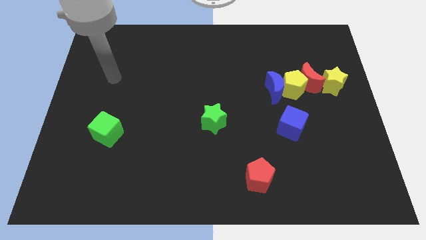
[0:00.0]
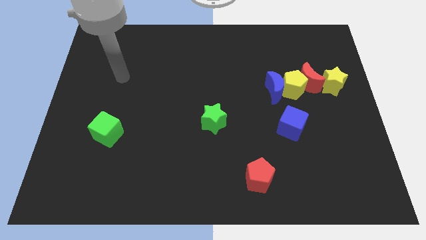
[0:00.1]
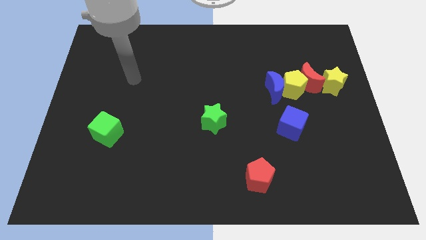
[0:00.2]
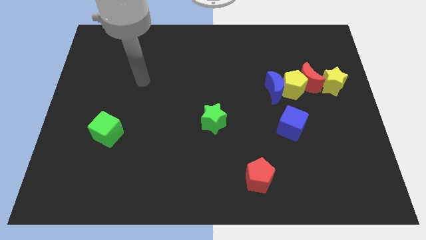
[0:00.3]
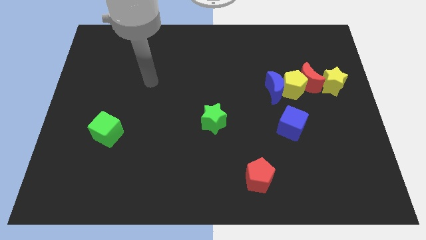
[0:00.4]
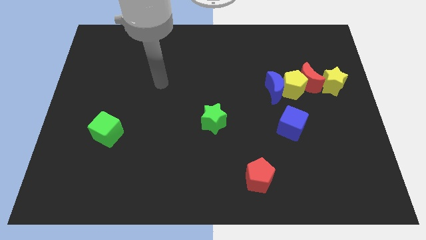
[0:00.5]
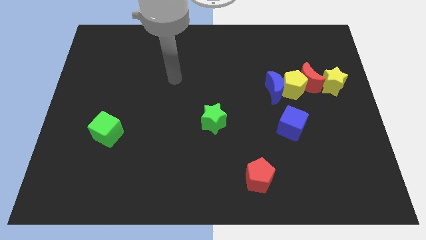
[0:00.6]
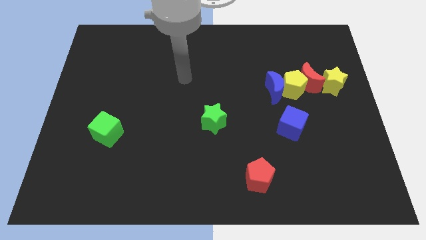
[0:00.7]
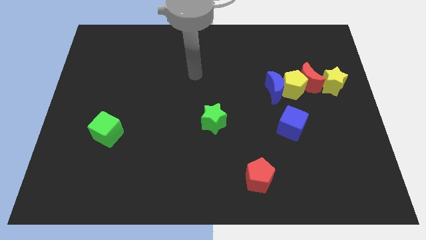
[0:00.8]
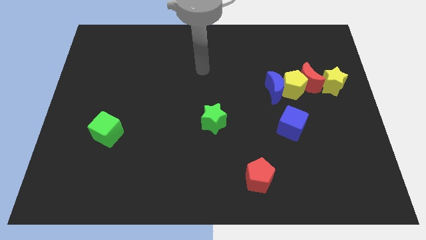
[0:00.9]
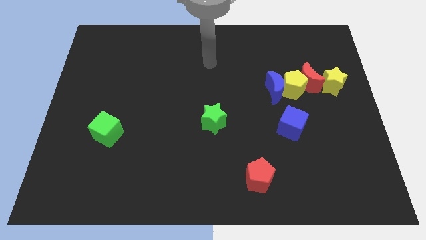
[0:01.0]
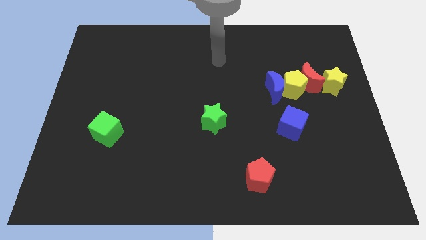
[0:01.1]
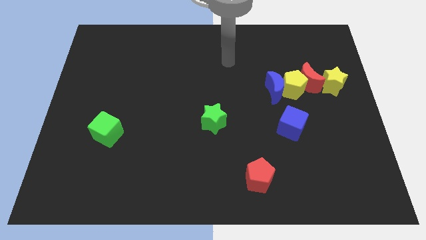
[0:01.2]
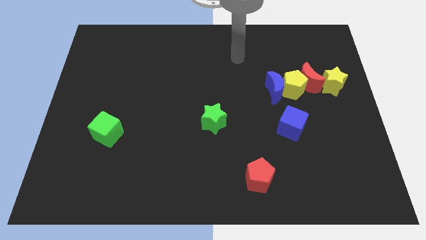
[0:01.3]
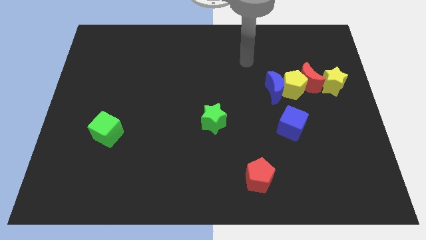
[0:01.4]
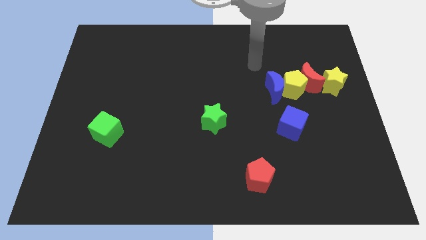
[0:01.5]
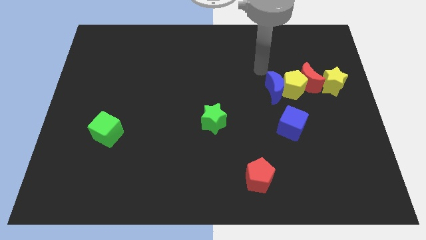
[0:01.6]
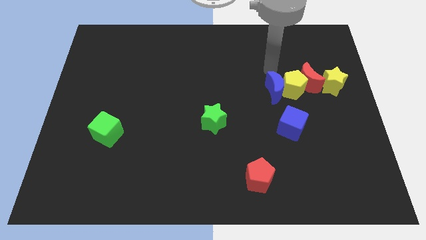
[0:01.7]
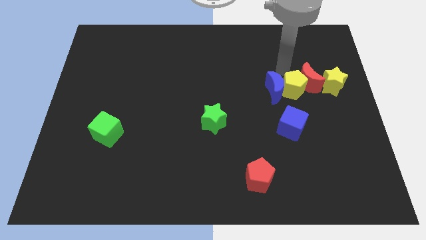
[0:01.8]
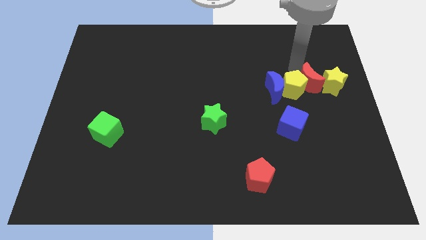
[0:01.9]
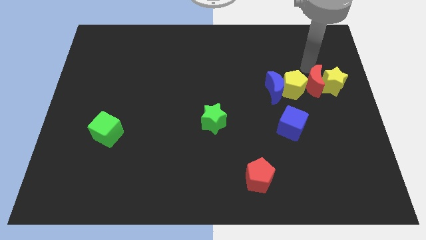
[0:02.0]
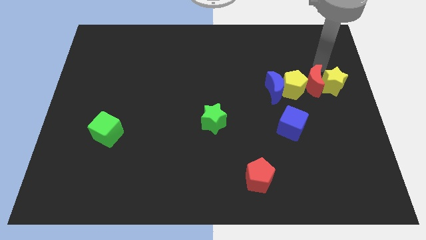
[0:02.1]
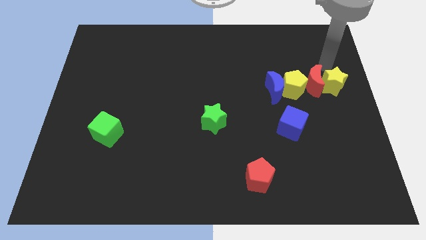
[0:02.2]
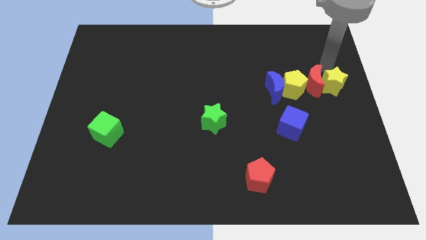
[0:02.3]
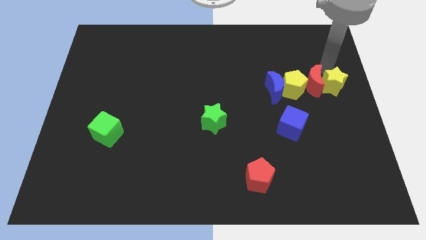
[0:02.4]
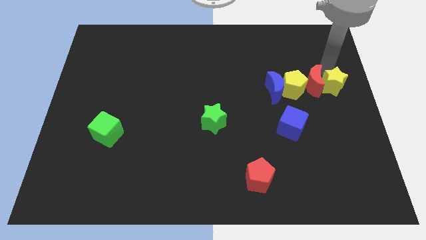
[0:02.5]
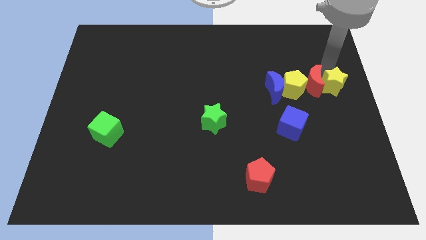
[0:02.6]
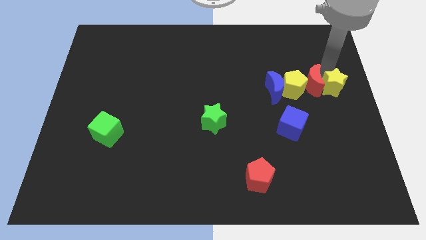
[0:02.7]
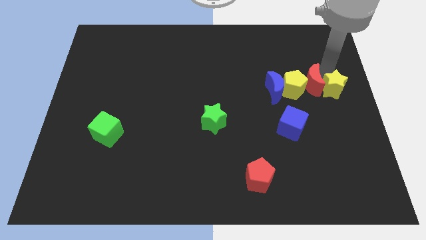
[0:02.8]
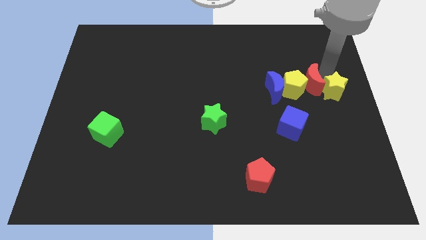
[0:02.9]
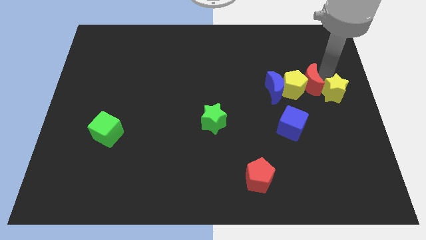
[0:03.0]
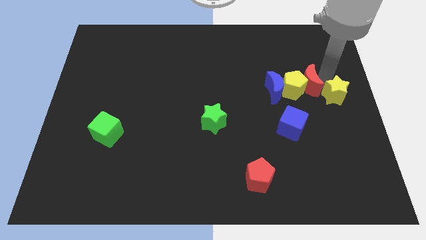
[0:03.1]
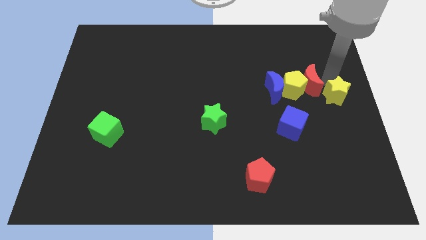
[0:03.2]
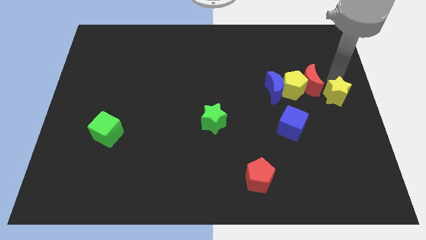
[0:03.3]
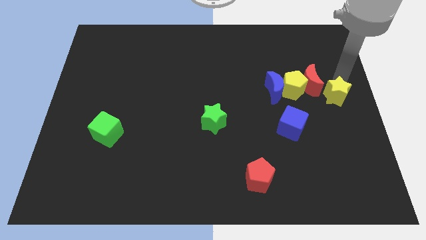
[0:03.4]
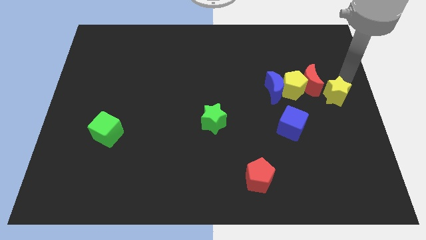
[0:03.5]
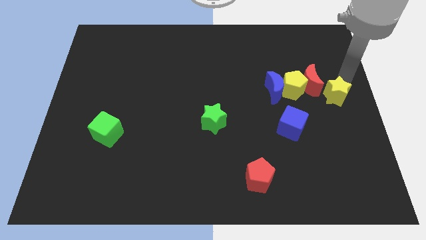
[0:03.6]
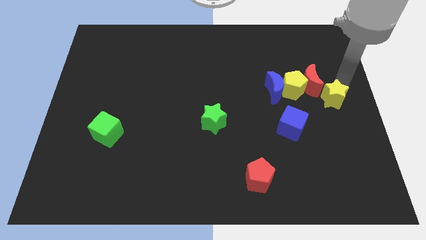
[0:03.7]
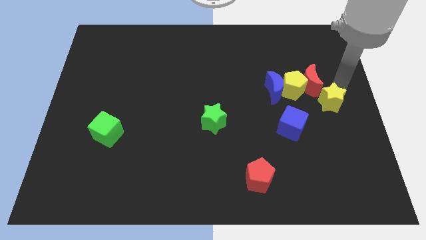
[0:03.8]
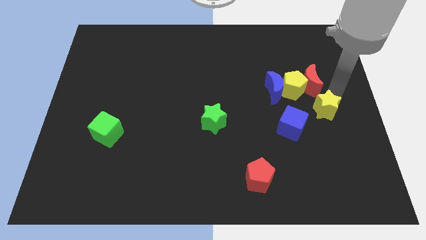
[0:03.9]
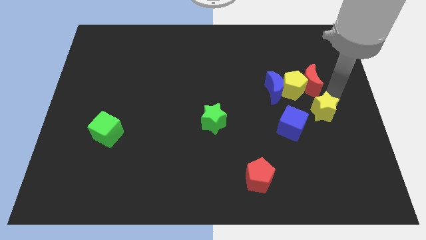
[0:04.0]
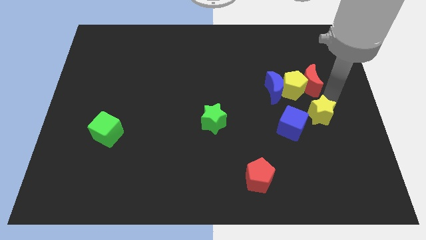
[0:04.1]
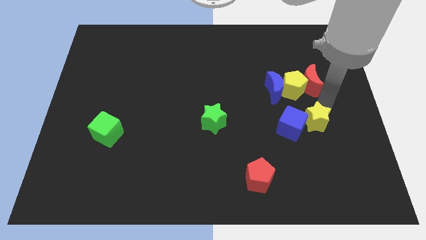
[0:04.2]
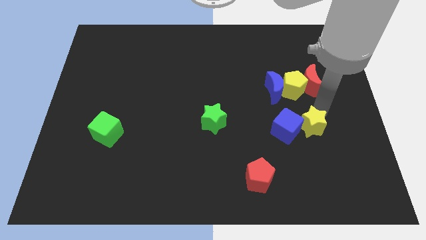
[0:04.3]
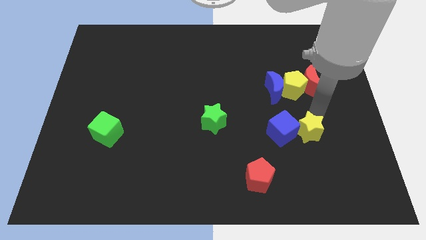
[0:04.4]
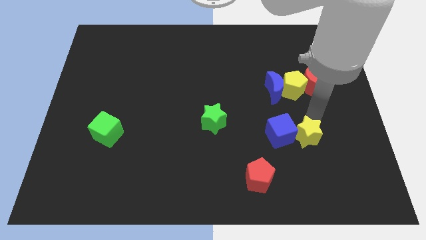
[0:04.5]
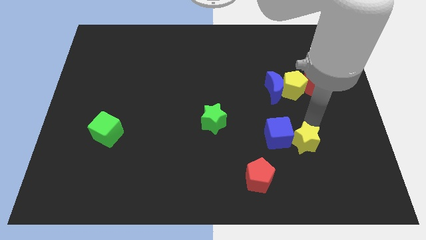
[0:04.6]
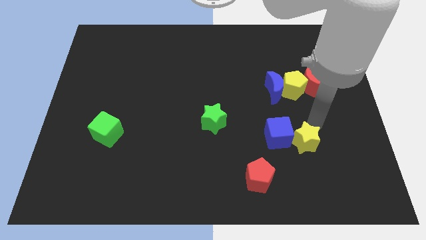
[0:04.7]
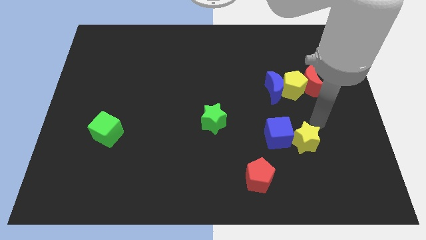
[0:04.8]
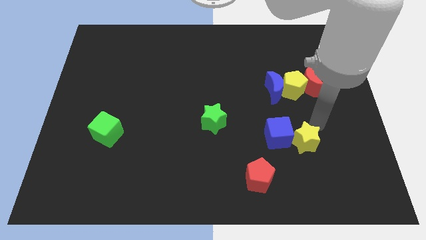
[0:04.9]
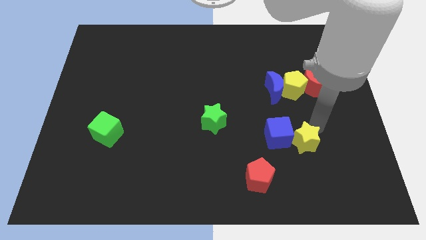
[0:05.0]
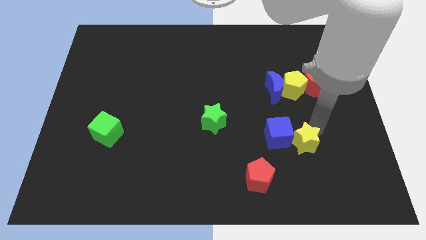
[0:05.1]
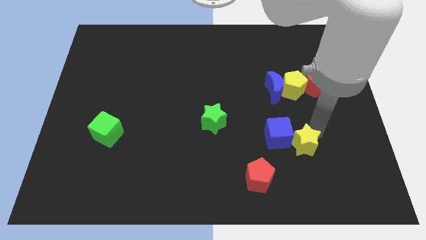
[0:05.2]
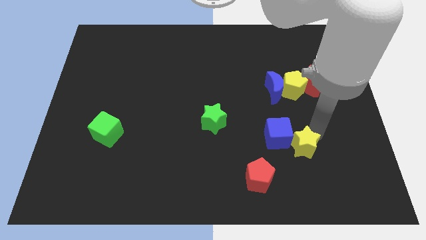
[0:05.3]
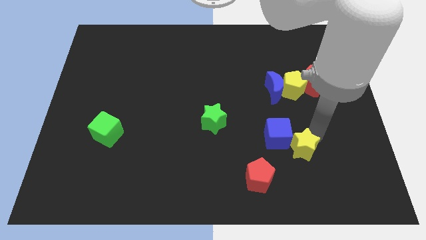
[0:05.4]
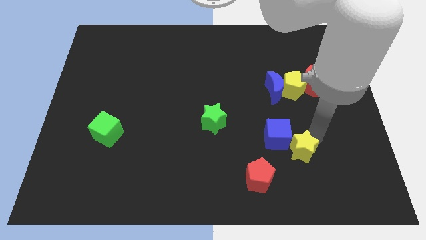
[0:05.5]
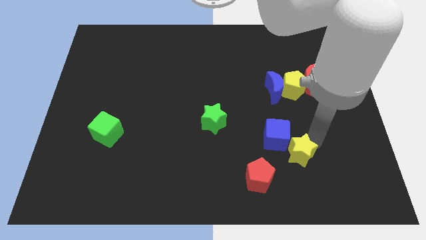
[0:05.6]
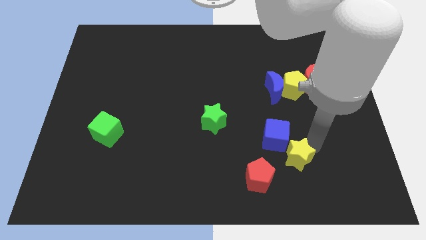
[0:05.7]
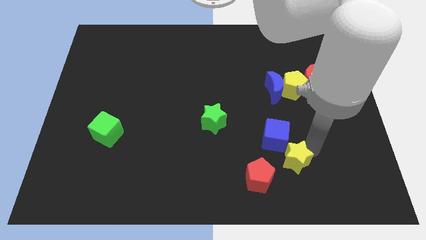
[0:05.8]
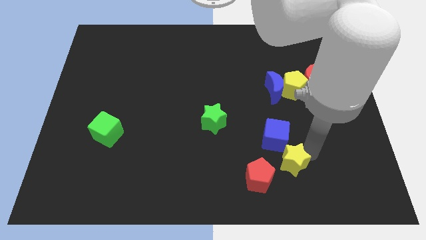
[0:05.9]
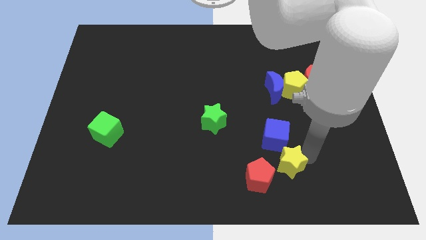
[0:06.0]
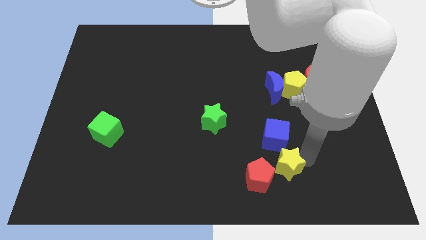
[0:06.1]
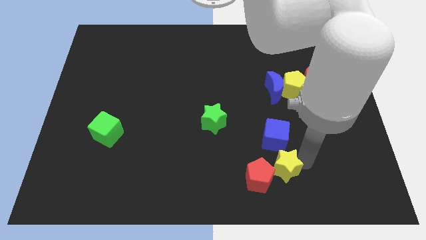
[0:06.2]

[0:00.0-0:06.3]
push the yellow star to the red pentagon

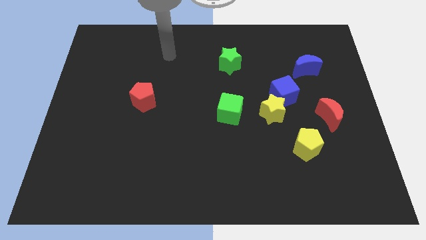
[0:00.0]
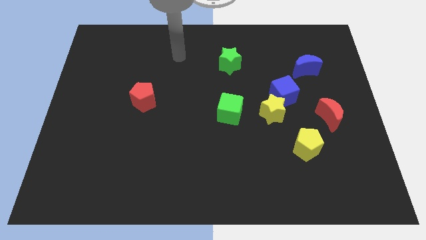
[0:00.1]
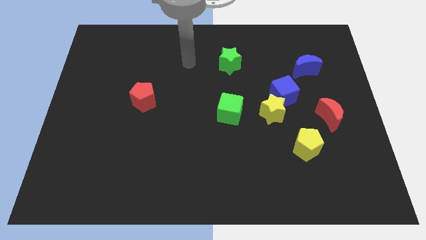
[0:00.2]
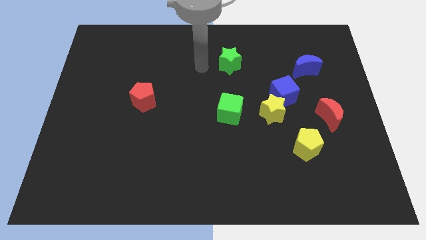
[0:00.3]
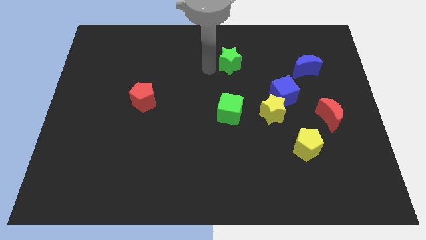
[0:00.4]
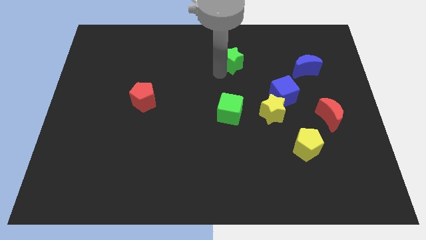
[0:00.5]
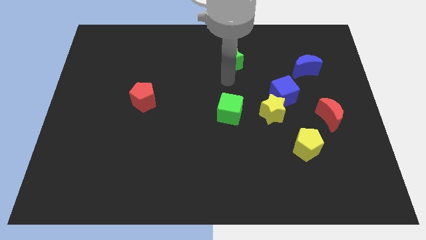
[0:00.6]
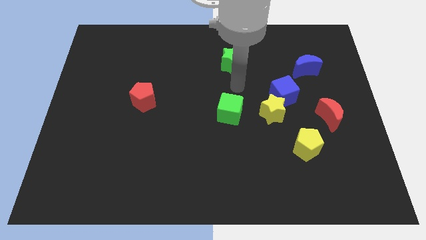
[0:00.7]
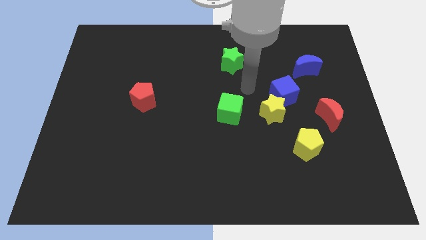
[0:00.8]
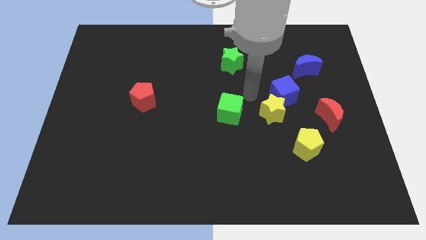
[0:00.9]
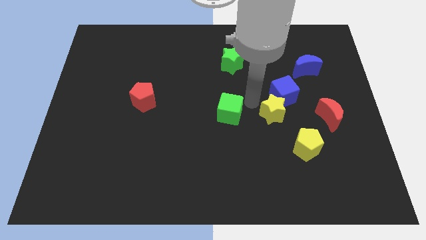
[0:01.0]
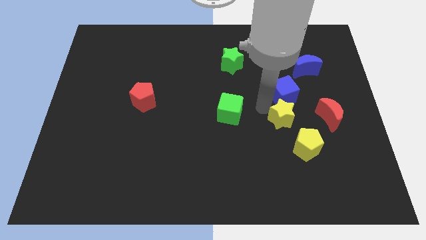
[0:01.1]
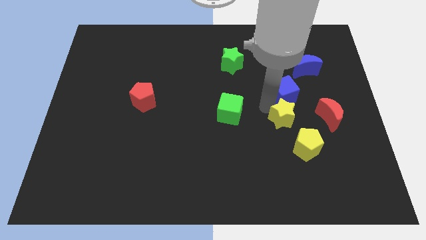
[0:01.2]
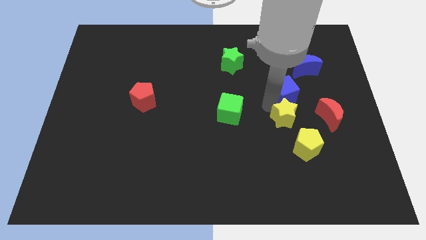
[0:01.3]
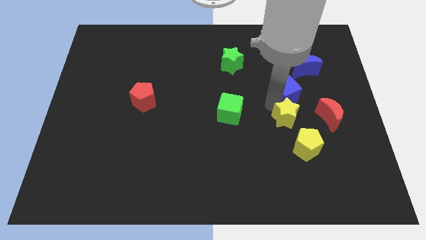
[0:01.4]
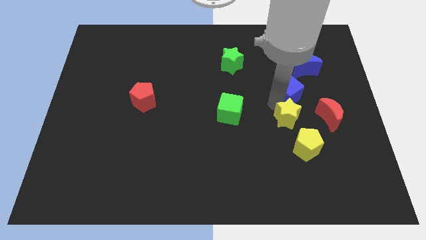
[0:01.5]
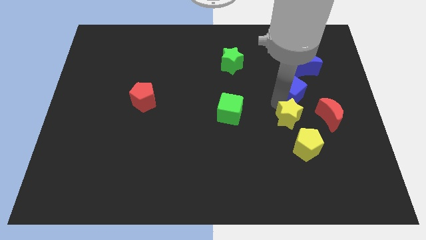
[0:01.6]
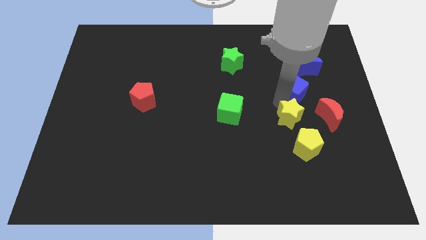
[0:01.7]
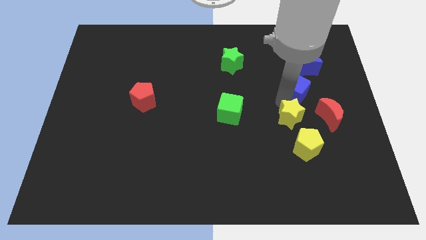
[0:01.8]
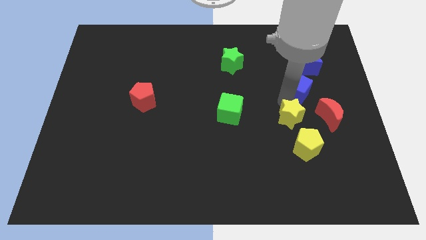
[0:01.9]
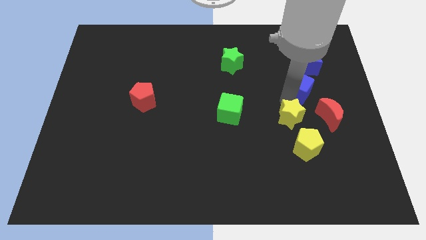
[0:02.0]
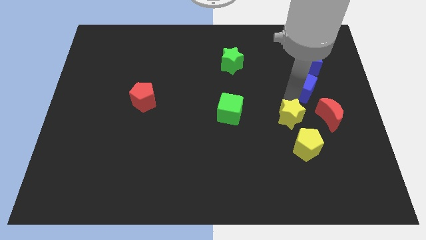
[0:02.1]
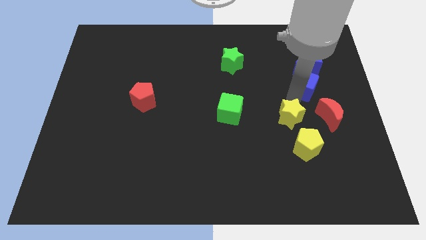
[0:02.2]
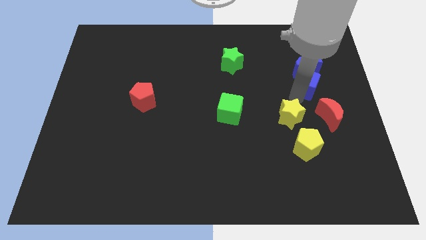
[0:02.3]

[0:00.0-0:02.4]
put the blue cube close to the blue moon
